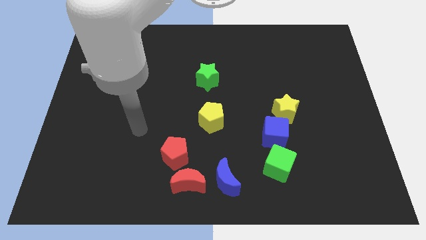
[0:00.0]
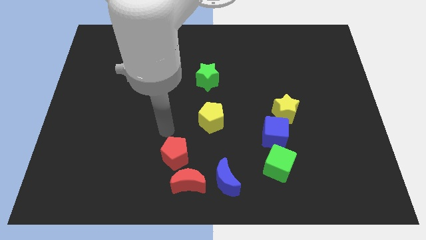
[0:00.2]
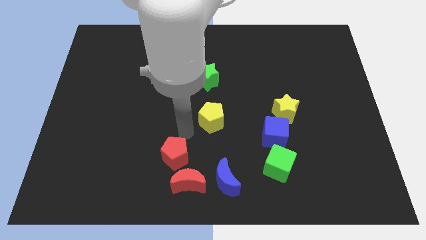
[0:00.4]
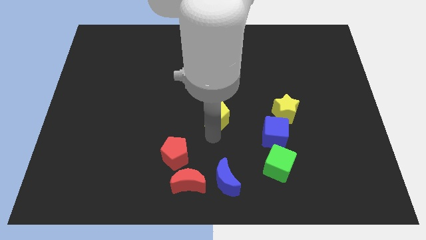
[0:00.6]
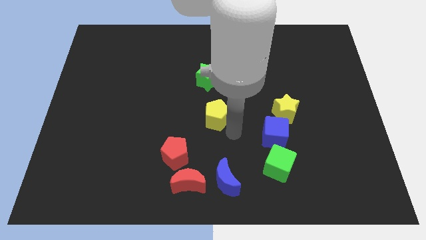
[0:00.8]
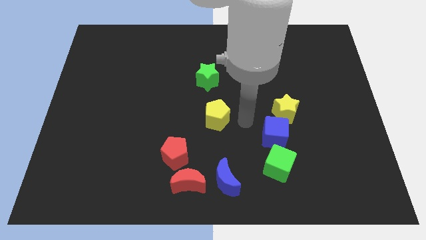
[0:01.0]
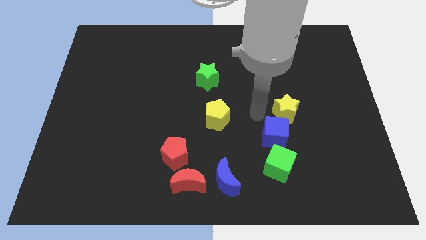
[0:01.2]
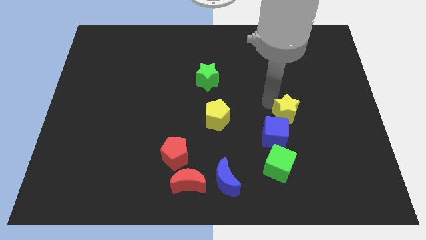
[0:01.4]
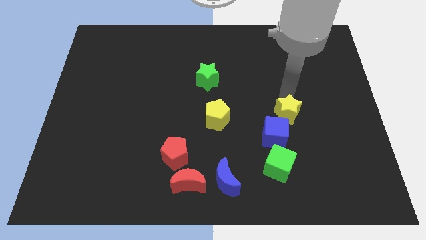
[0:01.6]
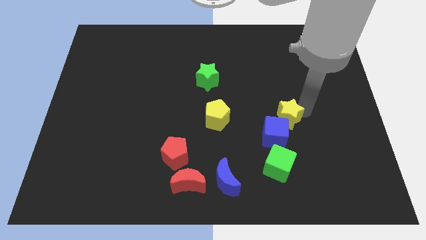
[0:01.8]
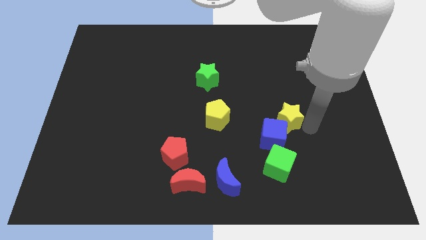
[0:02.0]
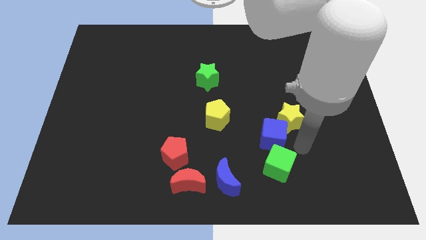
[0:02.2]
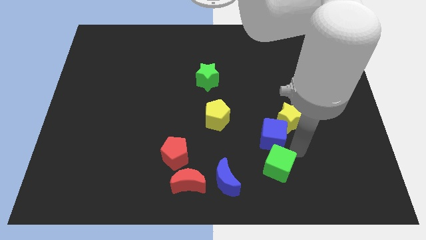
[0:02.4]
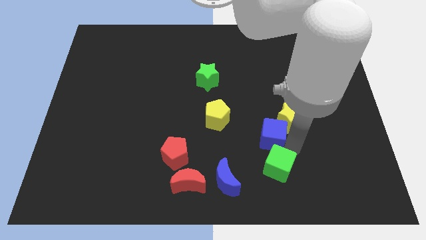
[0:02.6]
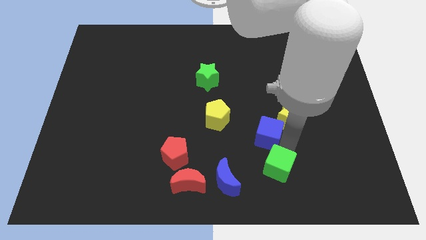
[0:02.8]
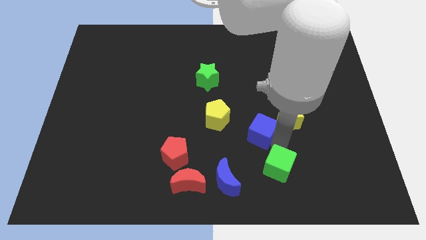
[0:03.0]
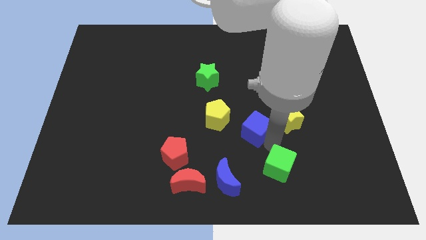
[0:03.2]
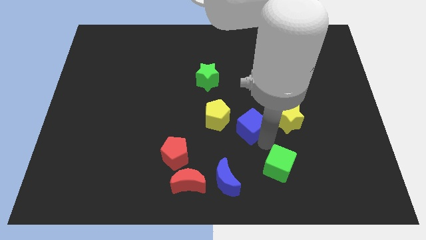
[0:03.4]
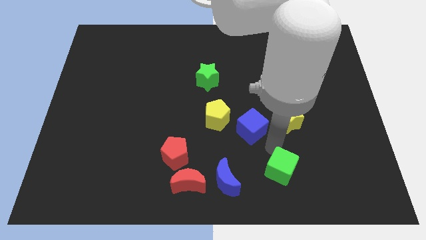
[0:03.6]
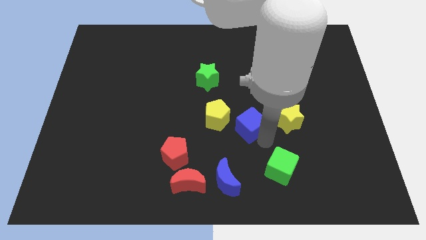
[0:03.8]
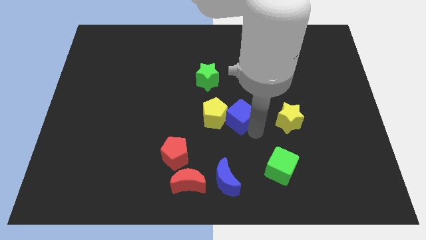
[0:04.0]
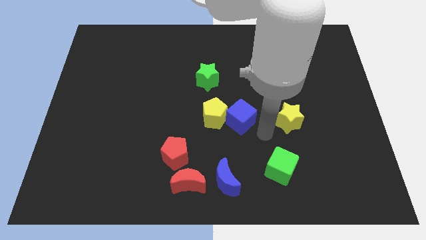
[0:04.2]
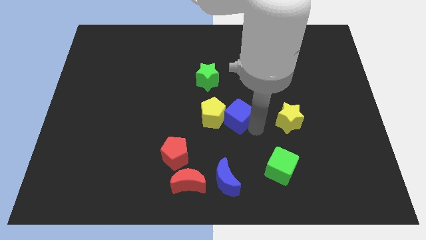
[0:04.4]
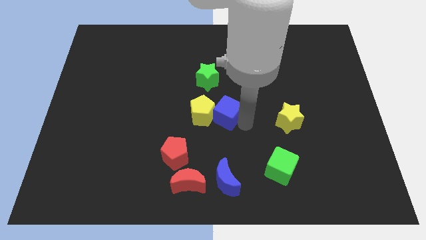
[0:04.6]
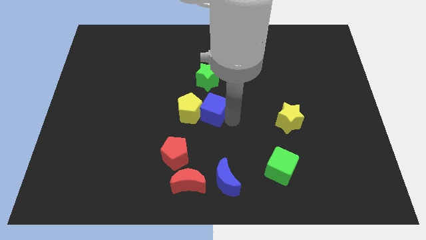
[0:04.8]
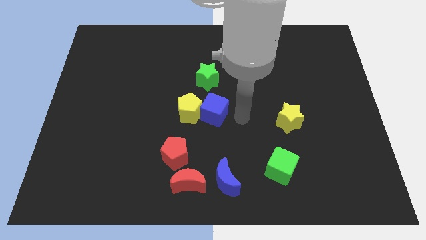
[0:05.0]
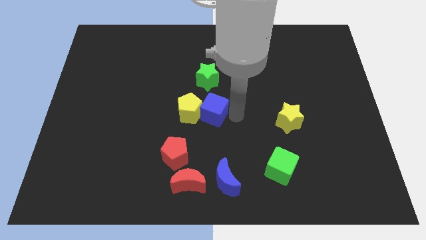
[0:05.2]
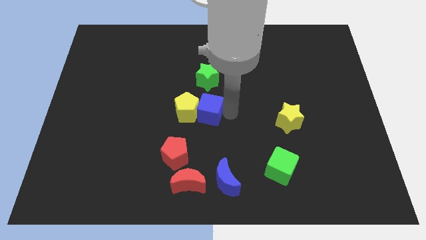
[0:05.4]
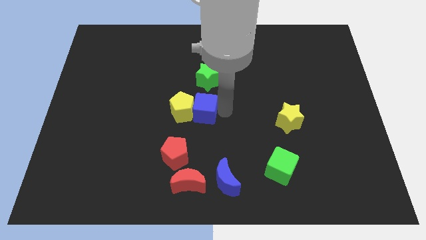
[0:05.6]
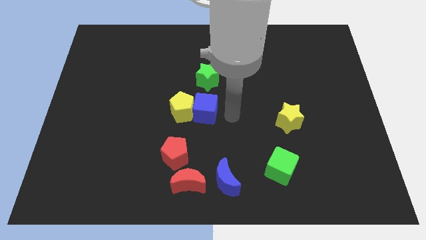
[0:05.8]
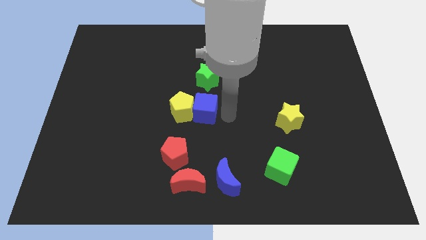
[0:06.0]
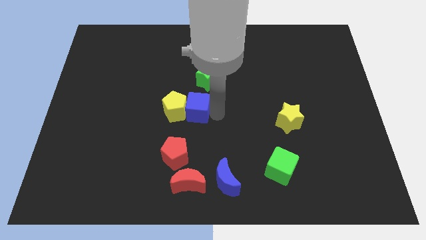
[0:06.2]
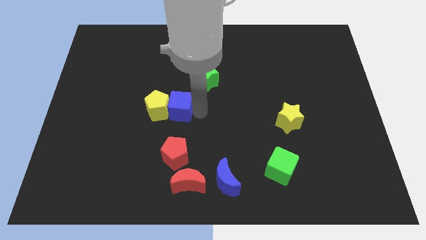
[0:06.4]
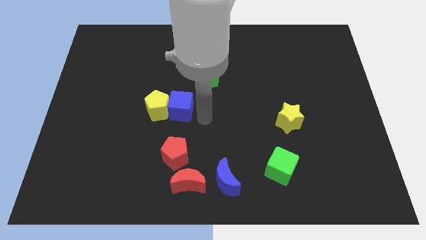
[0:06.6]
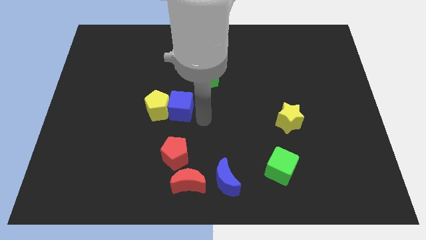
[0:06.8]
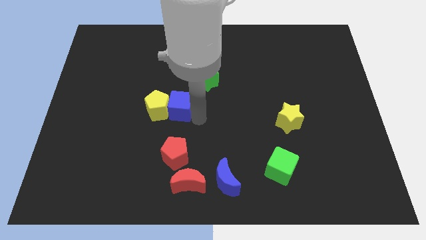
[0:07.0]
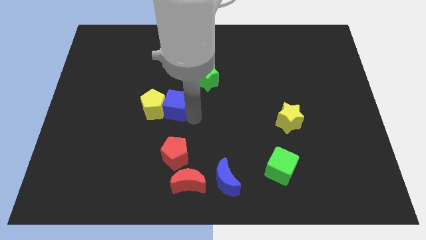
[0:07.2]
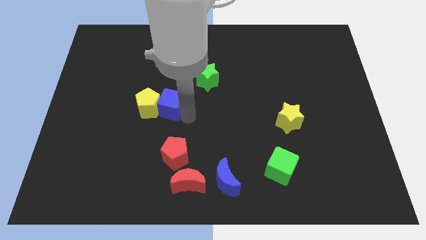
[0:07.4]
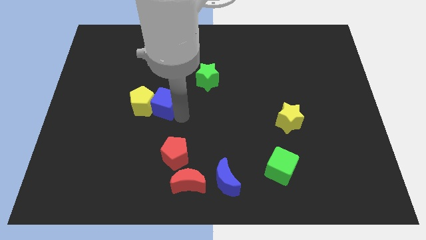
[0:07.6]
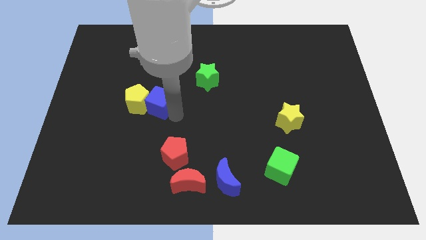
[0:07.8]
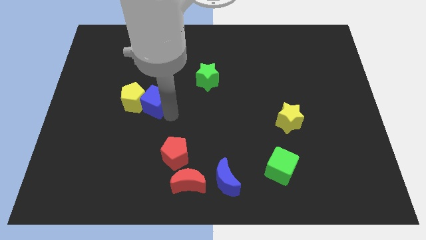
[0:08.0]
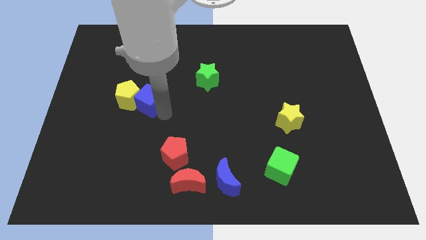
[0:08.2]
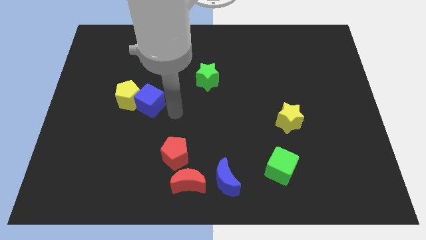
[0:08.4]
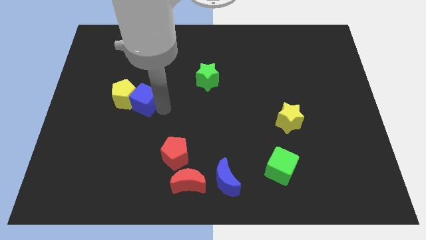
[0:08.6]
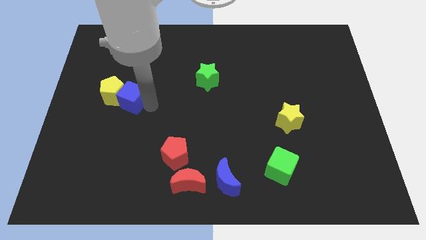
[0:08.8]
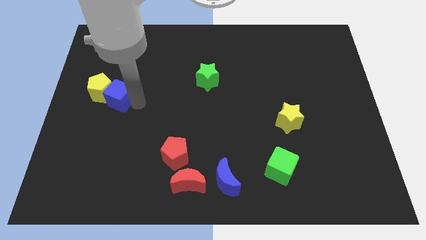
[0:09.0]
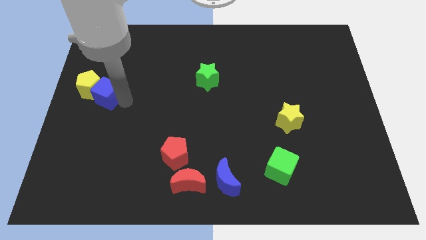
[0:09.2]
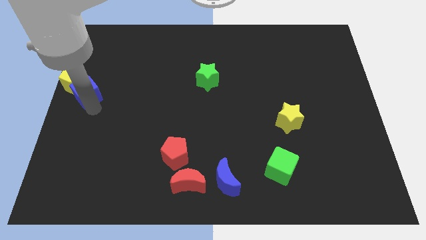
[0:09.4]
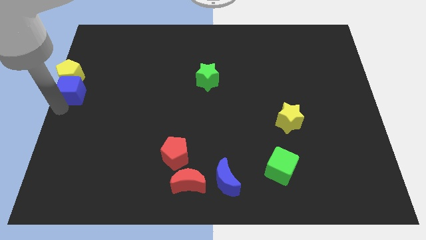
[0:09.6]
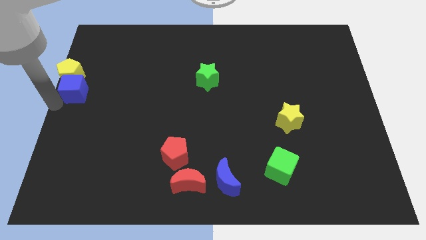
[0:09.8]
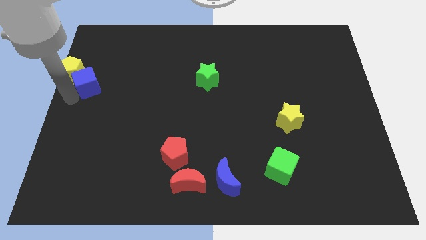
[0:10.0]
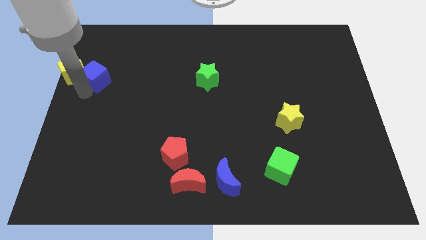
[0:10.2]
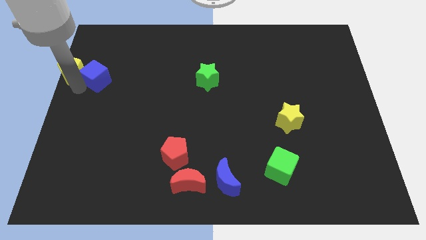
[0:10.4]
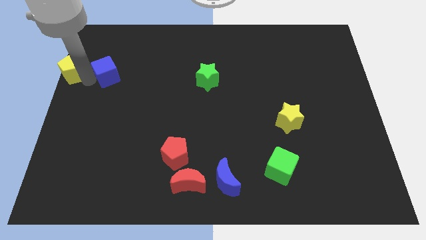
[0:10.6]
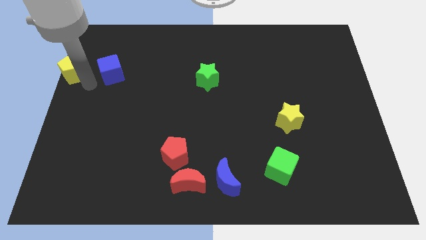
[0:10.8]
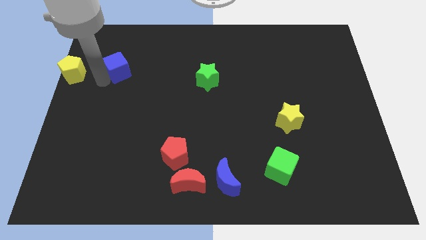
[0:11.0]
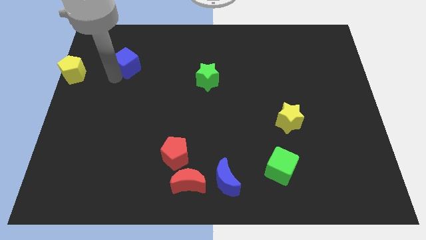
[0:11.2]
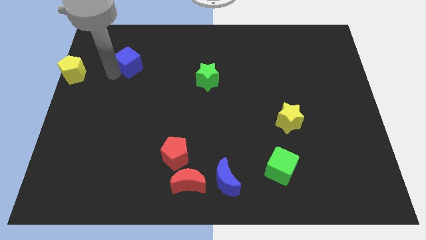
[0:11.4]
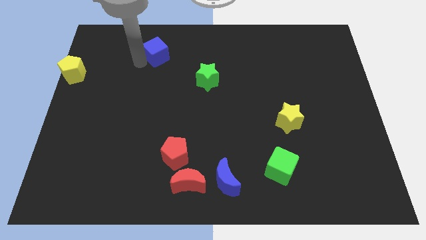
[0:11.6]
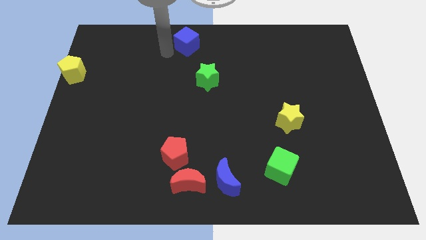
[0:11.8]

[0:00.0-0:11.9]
push the blue cube to the towards your base

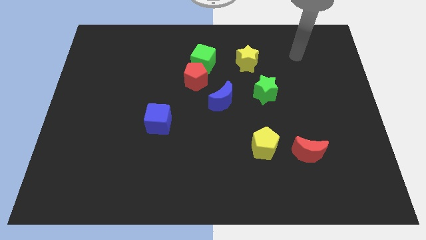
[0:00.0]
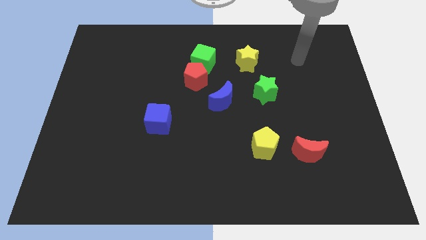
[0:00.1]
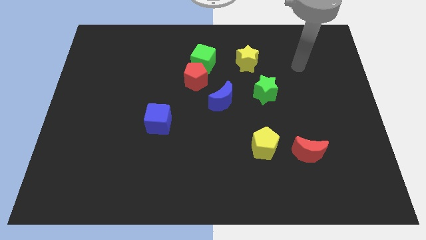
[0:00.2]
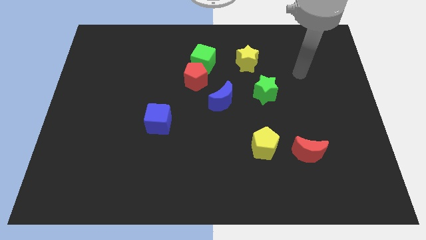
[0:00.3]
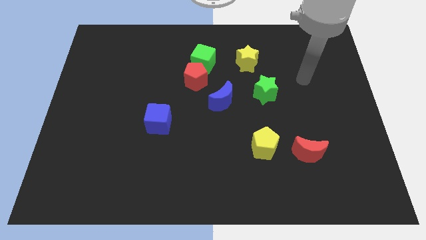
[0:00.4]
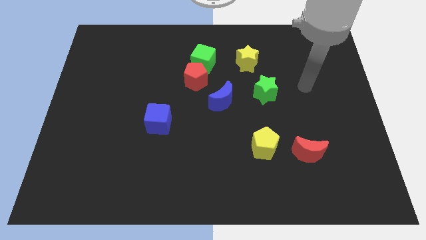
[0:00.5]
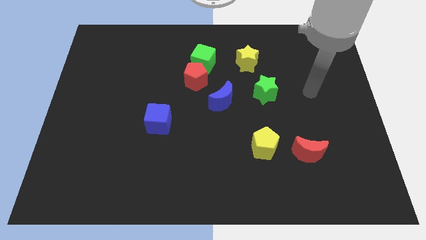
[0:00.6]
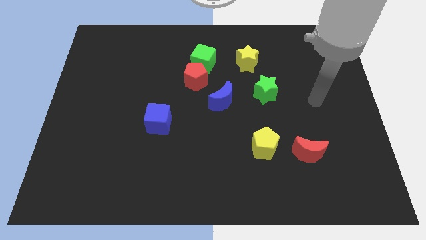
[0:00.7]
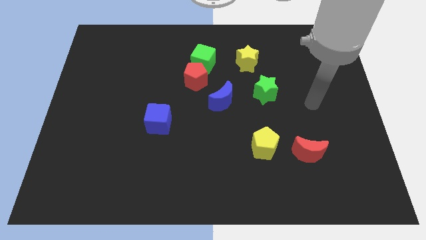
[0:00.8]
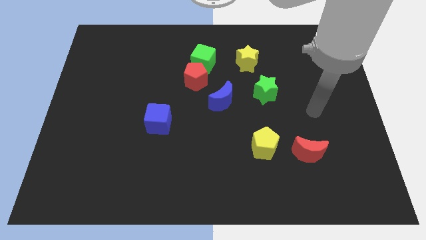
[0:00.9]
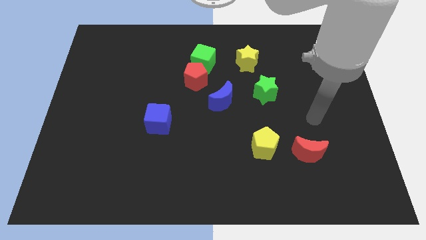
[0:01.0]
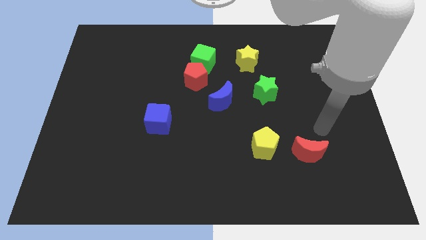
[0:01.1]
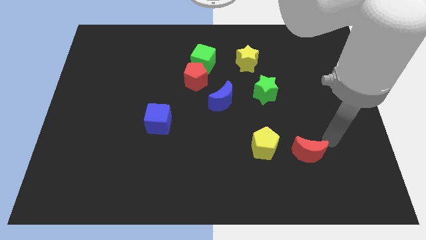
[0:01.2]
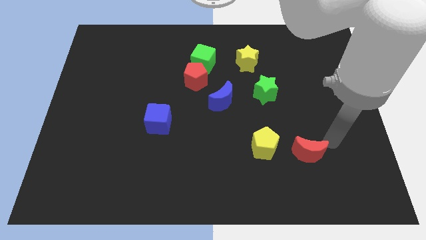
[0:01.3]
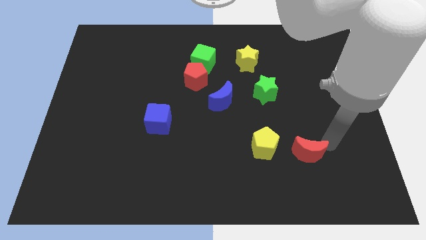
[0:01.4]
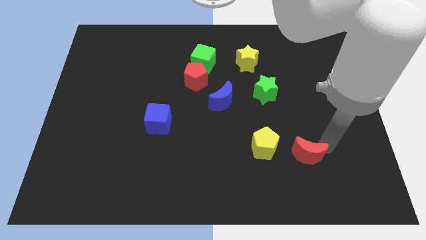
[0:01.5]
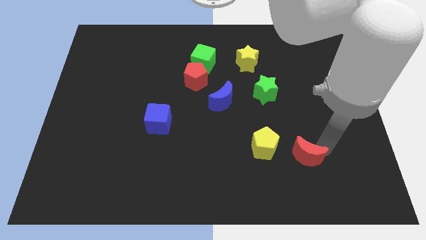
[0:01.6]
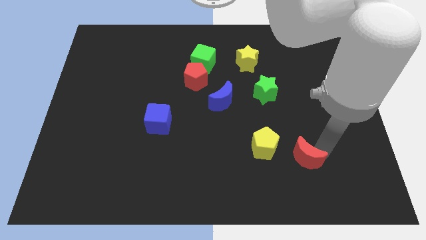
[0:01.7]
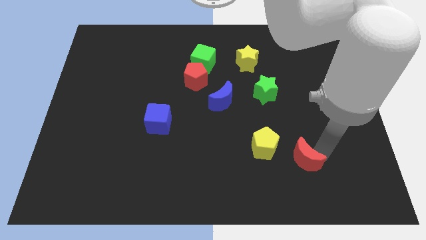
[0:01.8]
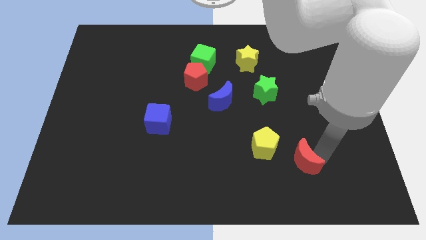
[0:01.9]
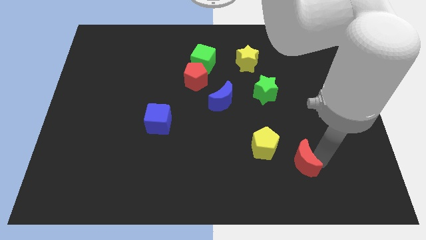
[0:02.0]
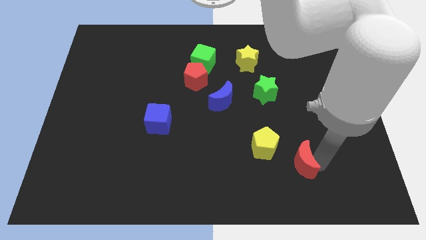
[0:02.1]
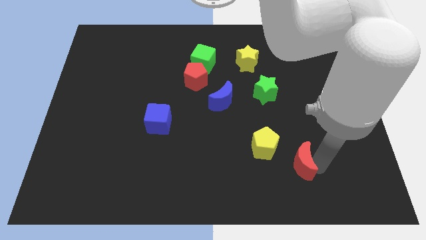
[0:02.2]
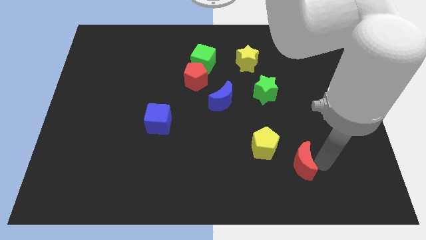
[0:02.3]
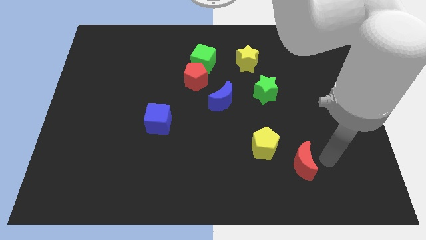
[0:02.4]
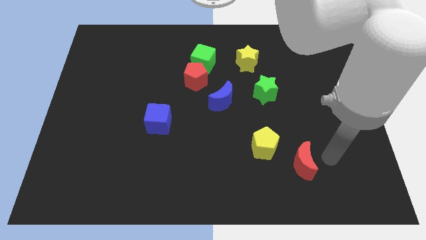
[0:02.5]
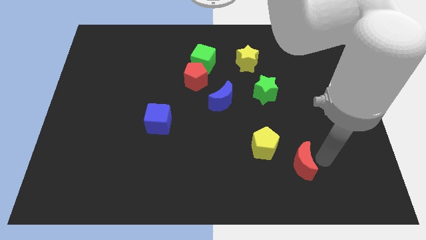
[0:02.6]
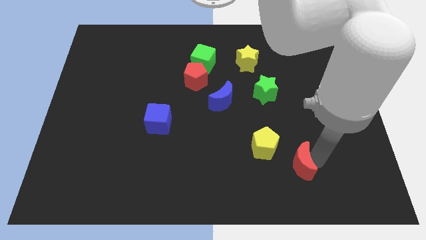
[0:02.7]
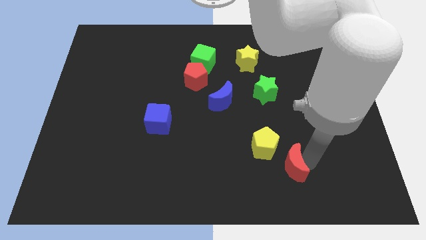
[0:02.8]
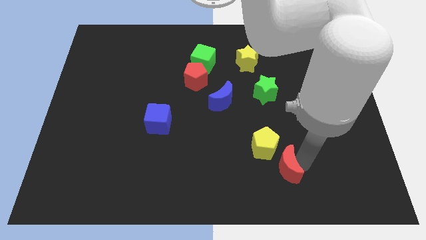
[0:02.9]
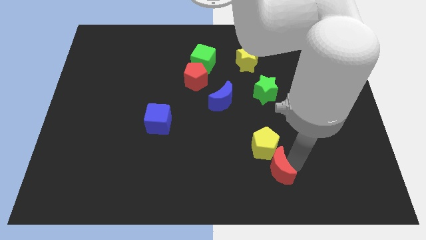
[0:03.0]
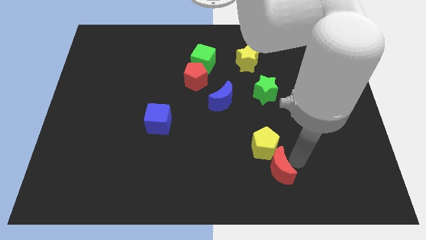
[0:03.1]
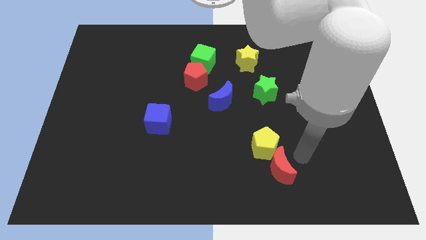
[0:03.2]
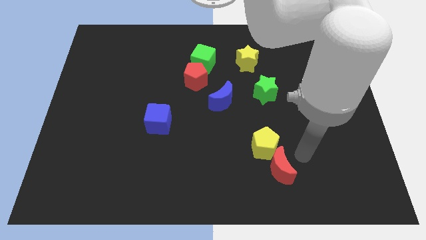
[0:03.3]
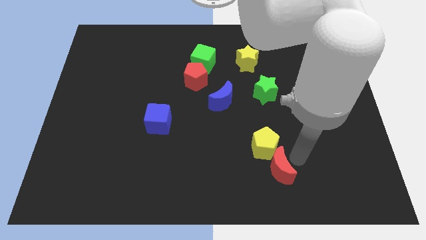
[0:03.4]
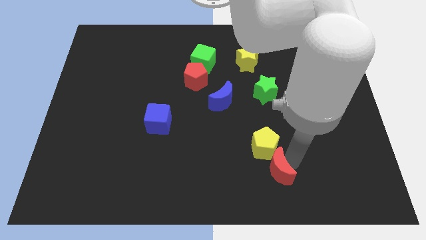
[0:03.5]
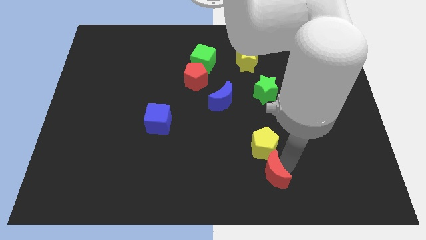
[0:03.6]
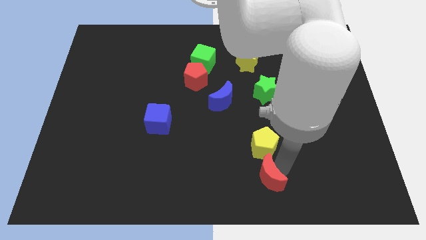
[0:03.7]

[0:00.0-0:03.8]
slide the red moon to the bottom
